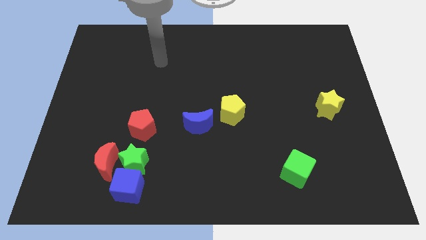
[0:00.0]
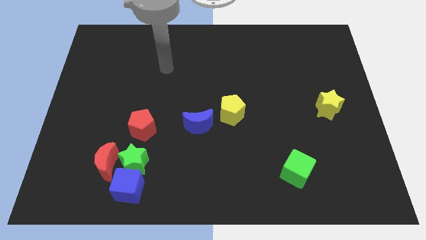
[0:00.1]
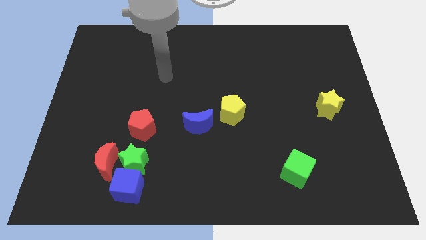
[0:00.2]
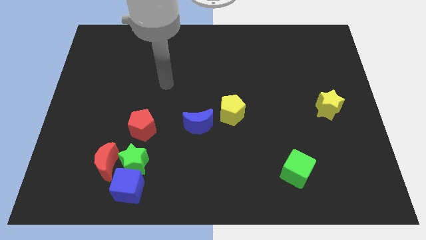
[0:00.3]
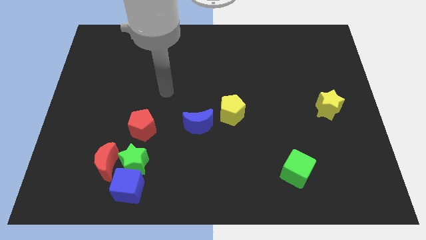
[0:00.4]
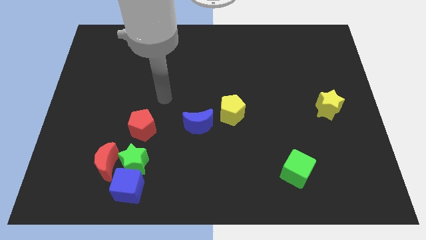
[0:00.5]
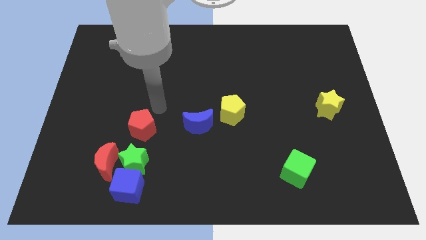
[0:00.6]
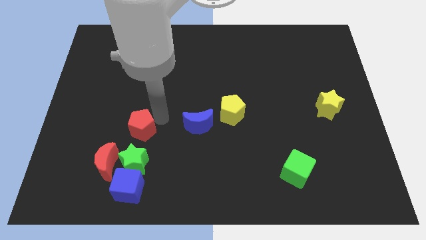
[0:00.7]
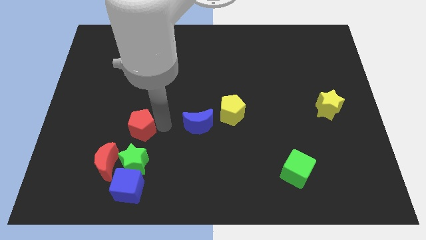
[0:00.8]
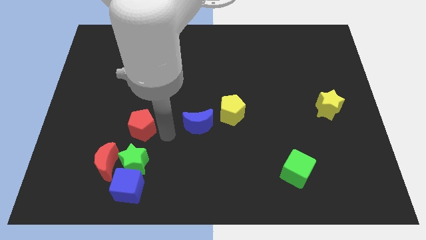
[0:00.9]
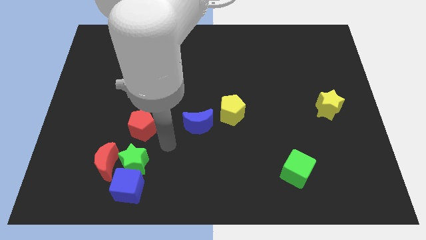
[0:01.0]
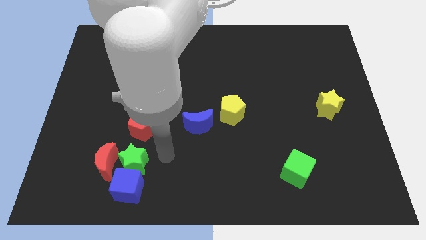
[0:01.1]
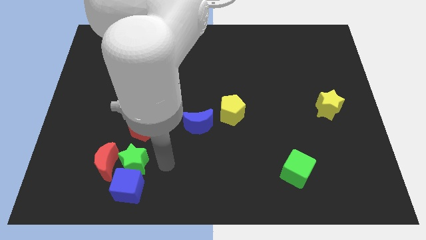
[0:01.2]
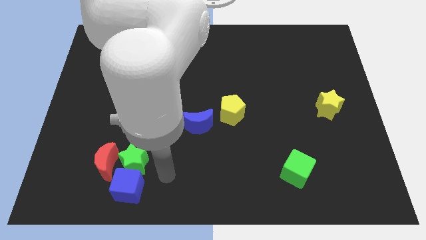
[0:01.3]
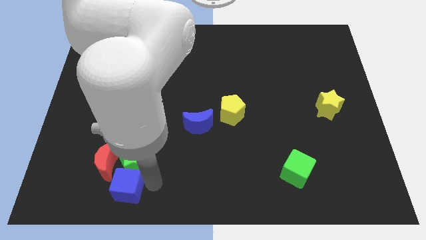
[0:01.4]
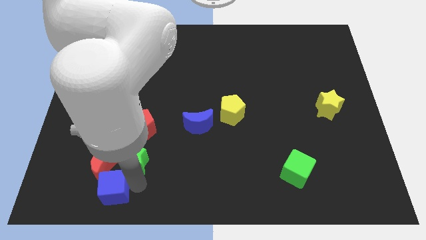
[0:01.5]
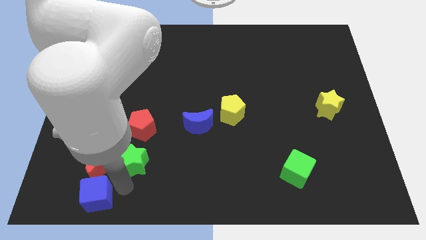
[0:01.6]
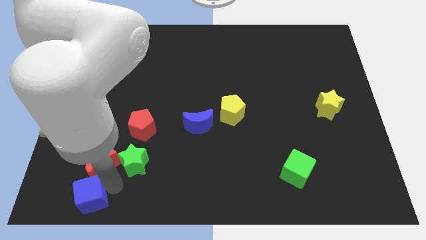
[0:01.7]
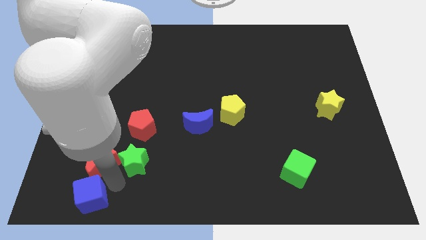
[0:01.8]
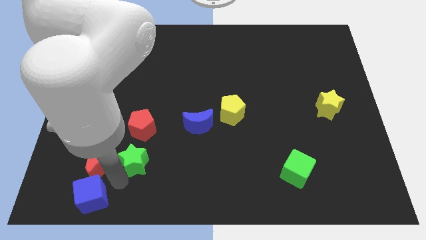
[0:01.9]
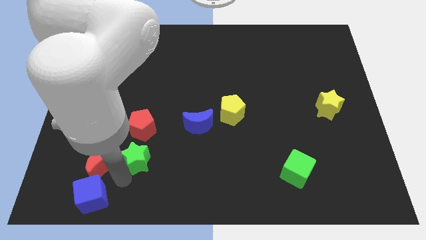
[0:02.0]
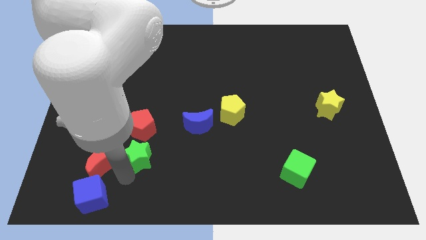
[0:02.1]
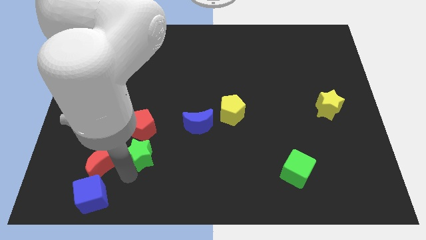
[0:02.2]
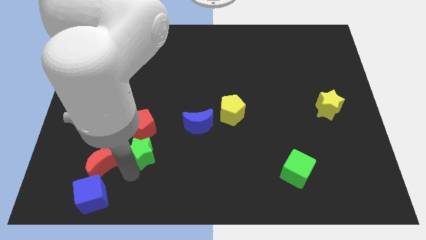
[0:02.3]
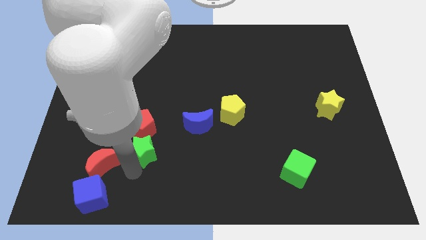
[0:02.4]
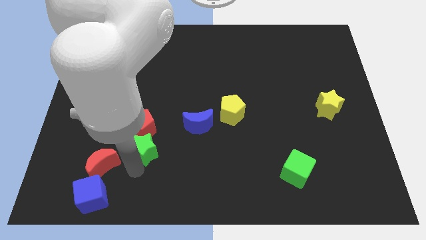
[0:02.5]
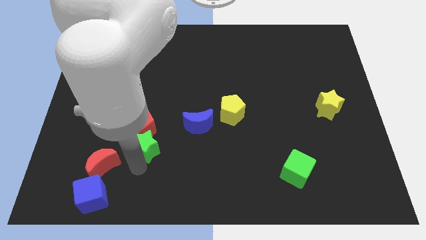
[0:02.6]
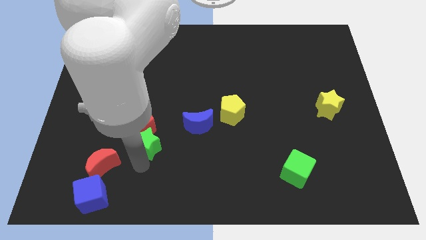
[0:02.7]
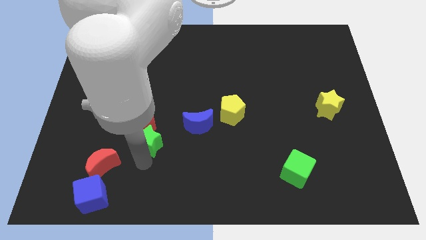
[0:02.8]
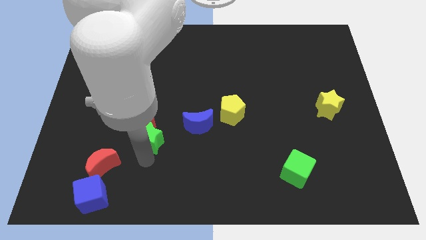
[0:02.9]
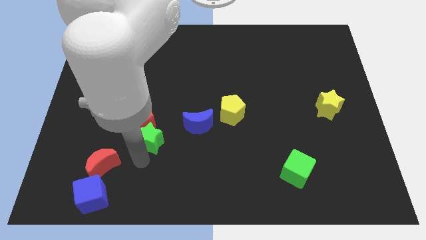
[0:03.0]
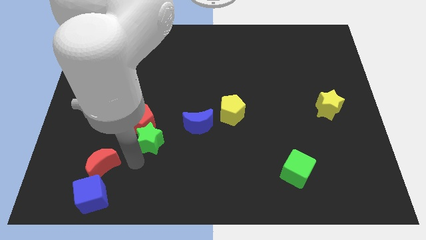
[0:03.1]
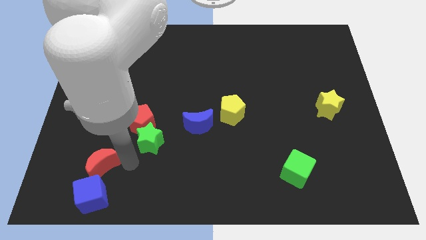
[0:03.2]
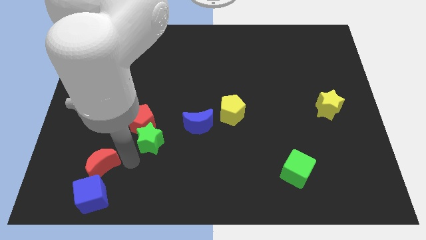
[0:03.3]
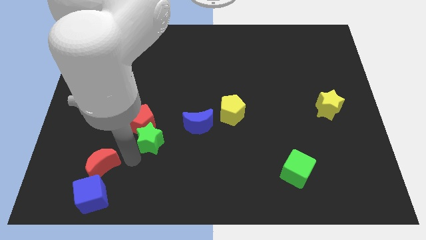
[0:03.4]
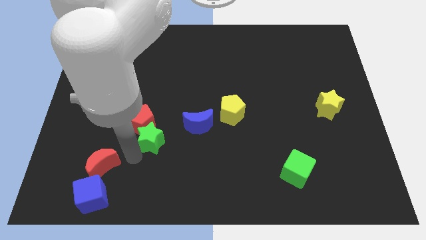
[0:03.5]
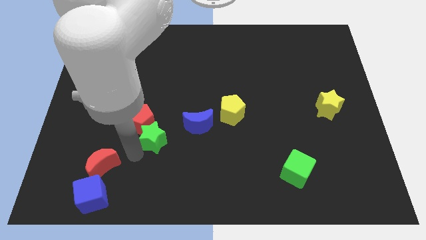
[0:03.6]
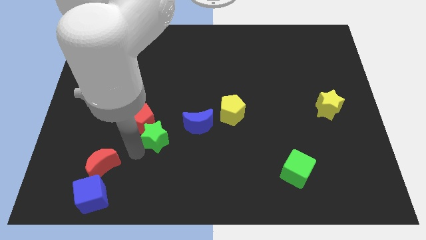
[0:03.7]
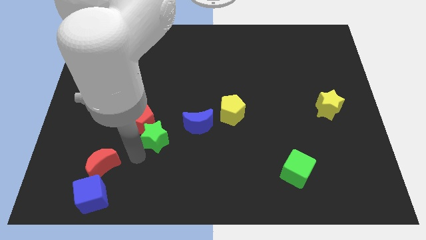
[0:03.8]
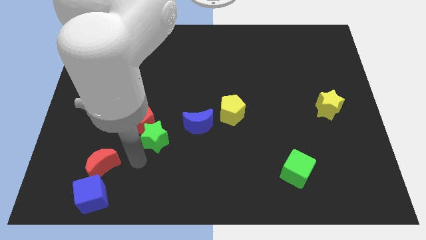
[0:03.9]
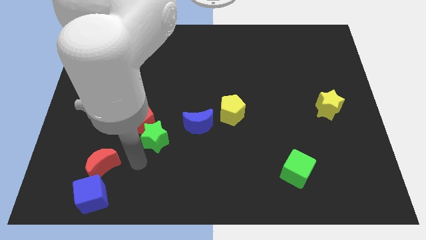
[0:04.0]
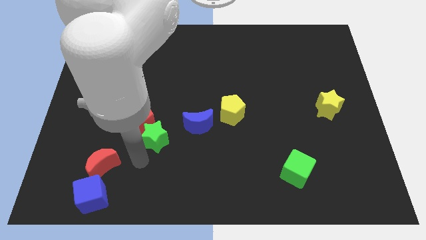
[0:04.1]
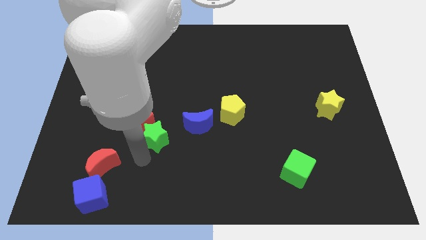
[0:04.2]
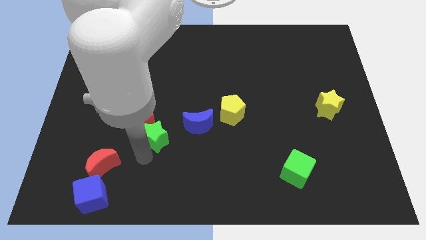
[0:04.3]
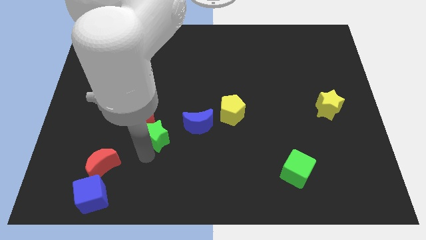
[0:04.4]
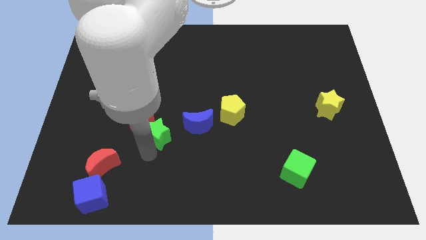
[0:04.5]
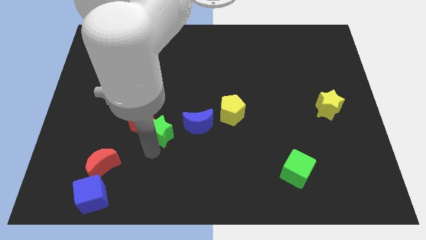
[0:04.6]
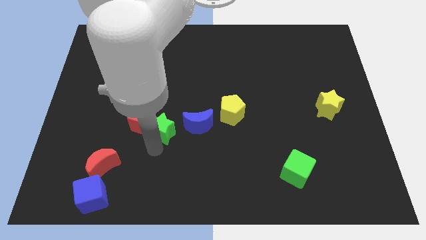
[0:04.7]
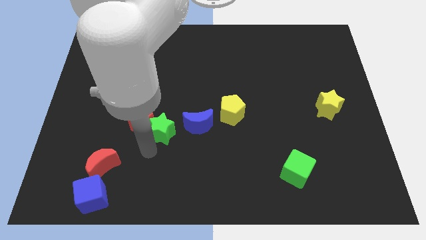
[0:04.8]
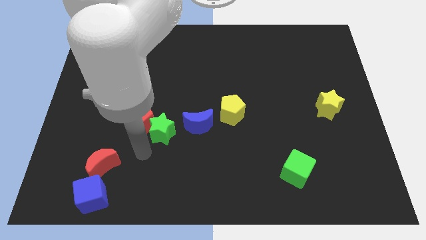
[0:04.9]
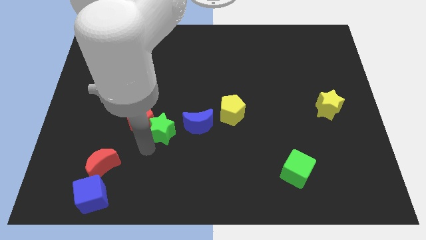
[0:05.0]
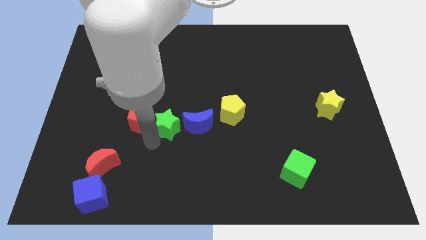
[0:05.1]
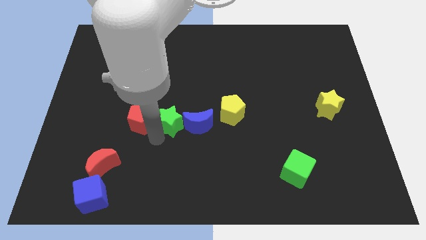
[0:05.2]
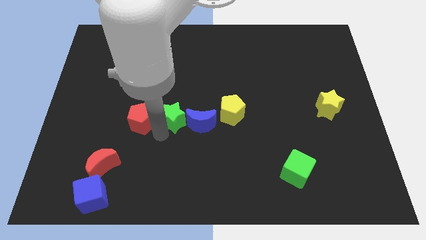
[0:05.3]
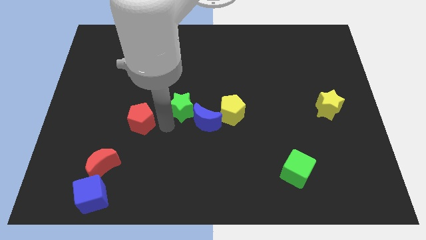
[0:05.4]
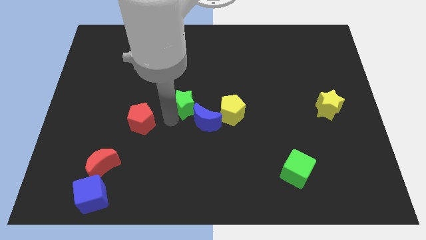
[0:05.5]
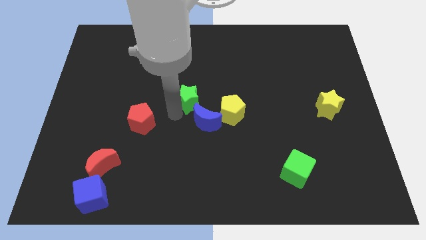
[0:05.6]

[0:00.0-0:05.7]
put the green star to the top left side of the yellow pentagon

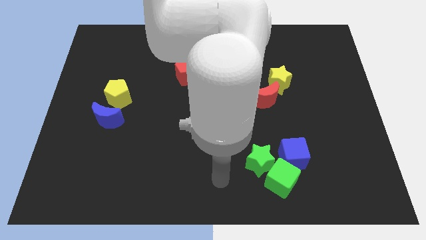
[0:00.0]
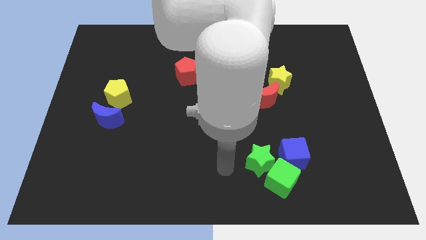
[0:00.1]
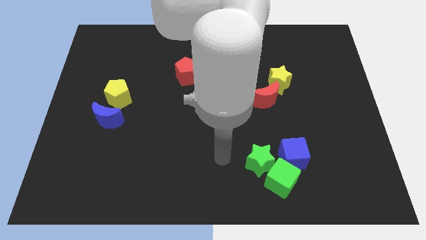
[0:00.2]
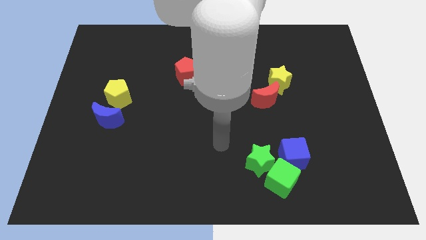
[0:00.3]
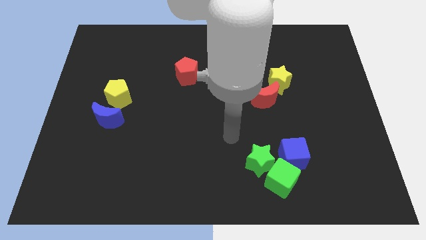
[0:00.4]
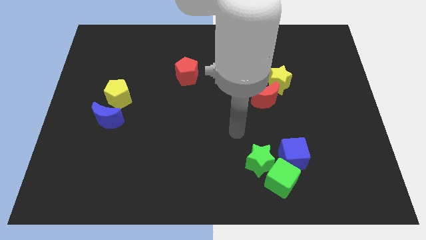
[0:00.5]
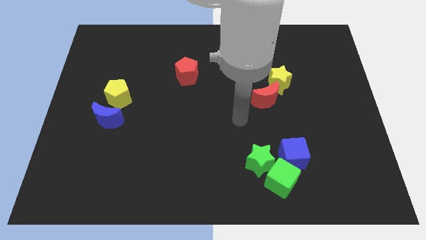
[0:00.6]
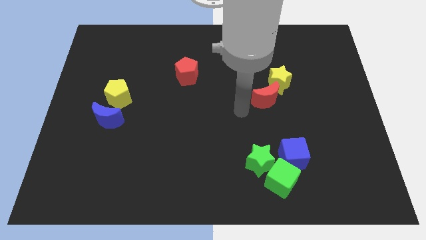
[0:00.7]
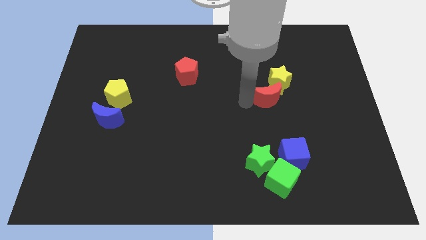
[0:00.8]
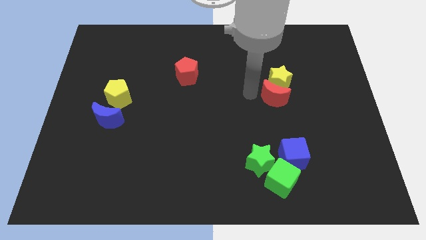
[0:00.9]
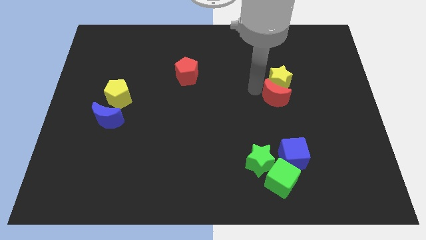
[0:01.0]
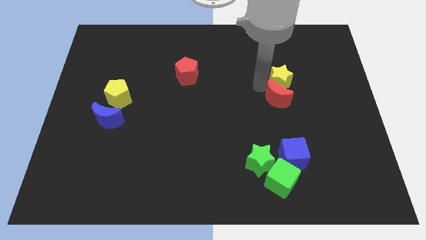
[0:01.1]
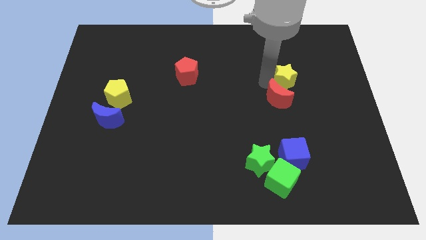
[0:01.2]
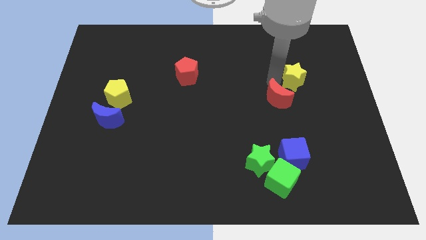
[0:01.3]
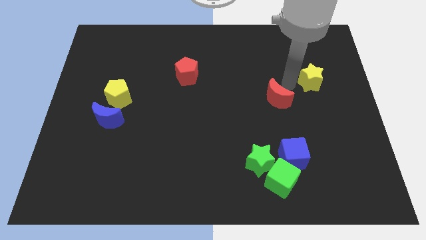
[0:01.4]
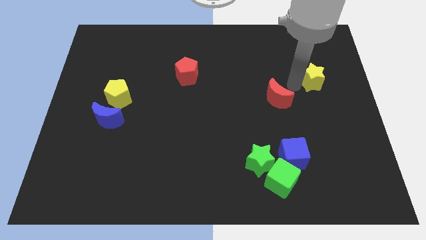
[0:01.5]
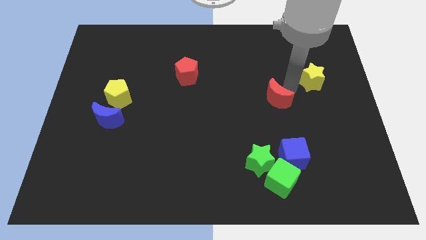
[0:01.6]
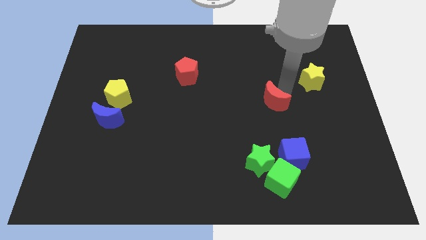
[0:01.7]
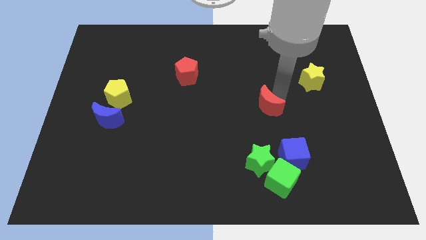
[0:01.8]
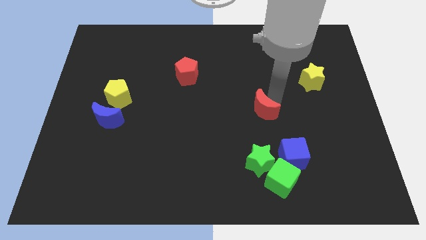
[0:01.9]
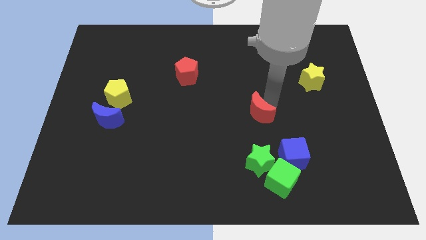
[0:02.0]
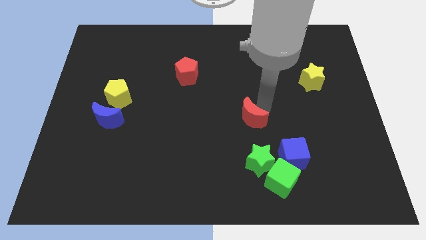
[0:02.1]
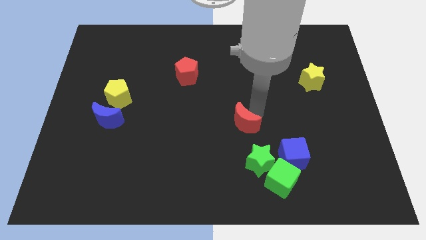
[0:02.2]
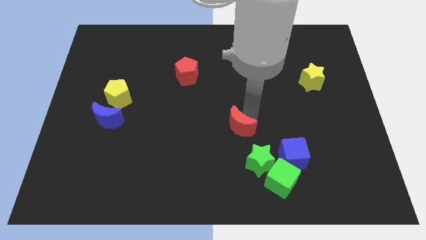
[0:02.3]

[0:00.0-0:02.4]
push the red moon to the top left of the green star
